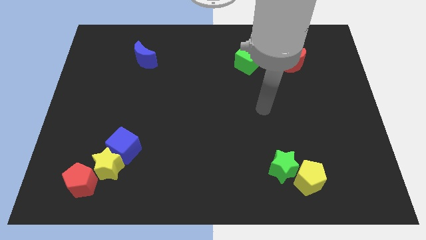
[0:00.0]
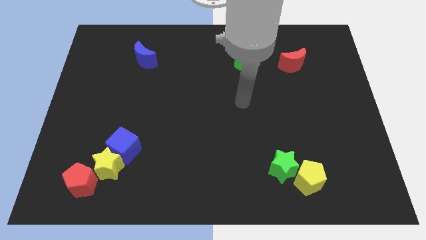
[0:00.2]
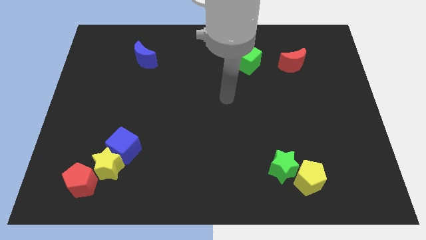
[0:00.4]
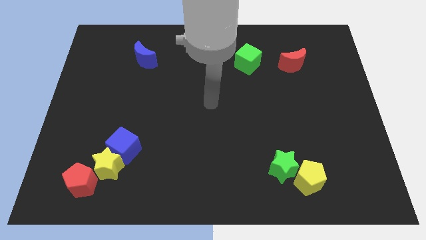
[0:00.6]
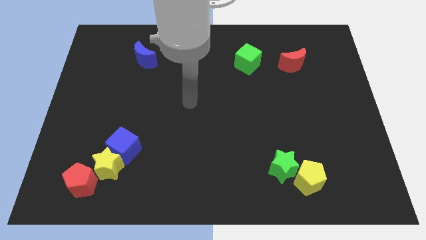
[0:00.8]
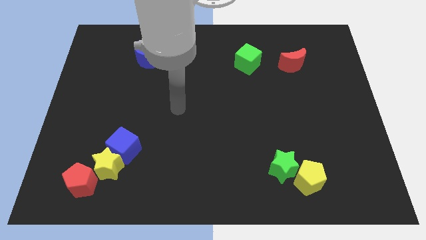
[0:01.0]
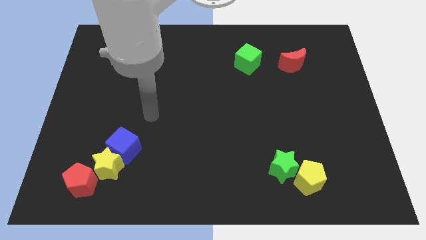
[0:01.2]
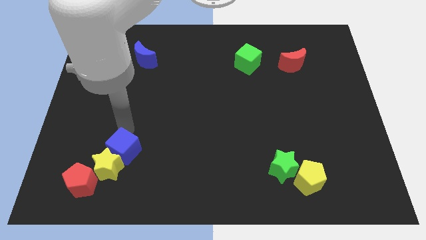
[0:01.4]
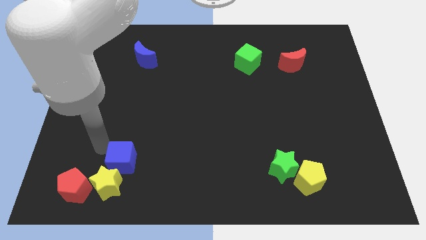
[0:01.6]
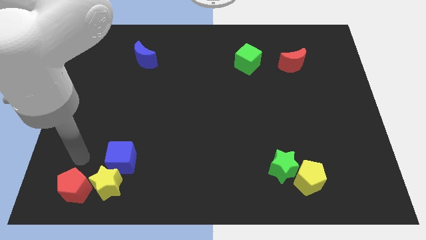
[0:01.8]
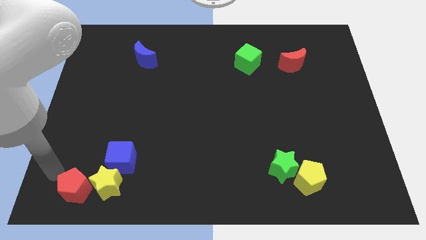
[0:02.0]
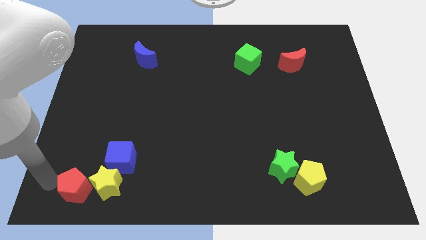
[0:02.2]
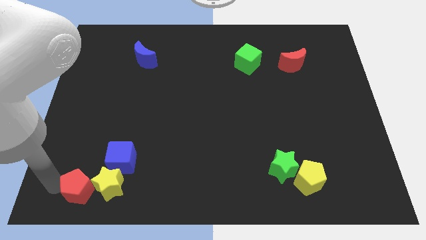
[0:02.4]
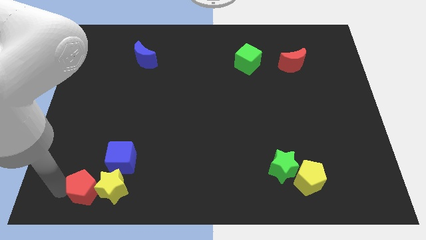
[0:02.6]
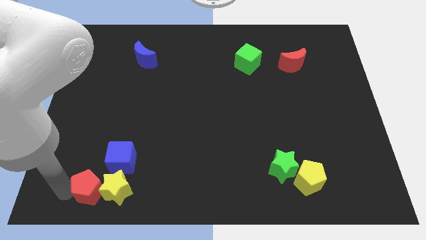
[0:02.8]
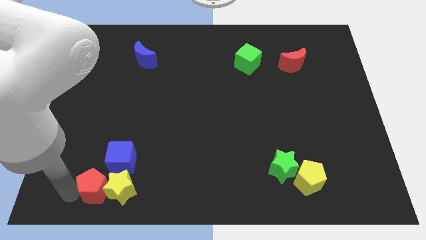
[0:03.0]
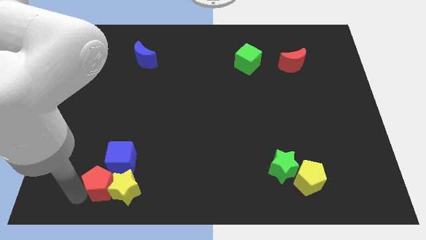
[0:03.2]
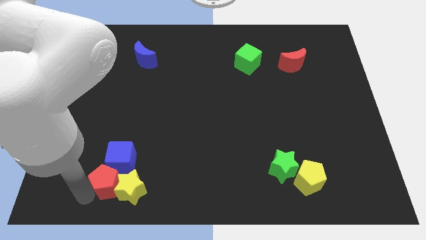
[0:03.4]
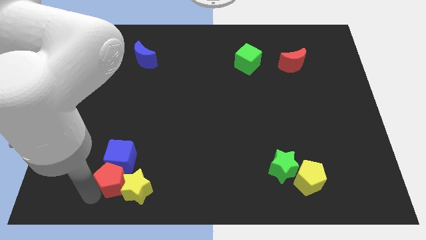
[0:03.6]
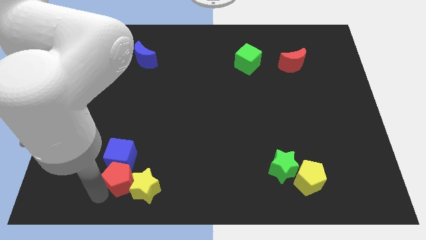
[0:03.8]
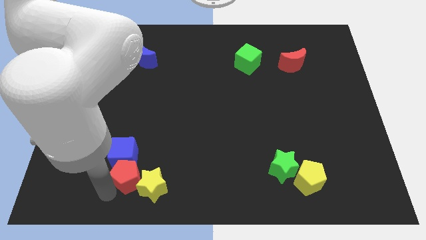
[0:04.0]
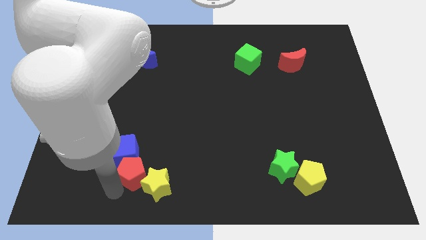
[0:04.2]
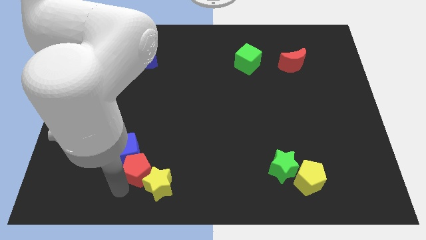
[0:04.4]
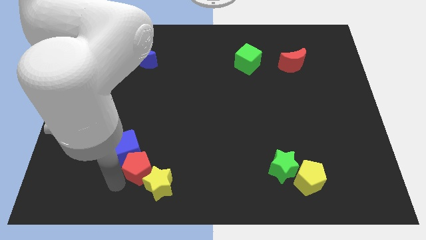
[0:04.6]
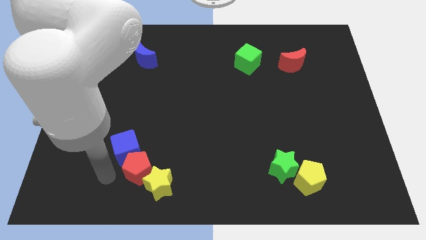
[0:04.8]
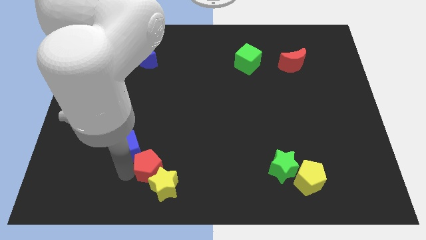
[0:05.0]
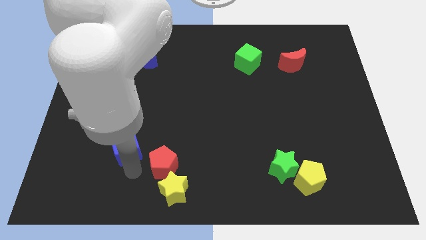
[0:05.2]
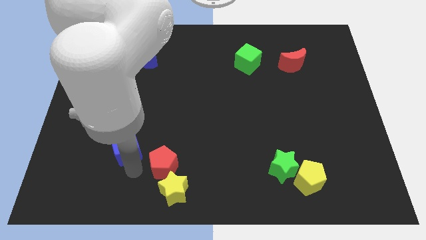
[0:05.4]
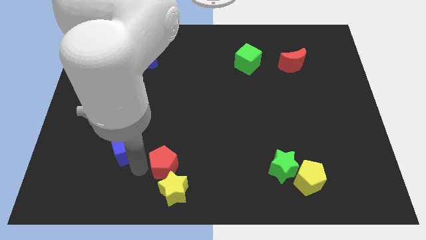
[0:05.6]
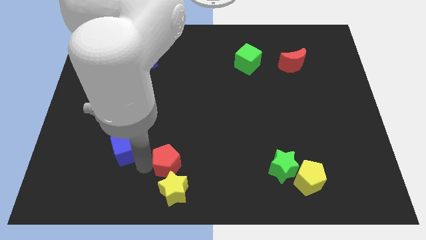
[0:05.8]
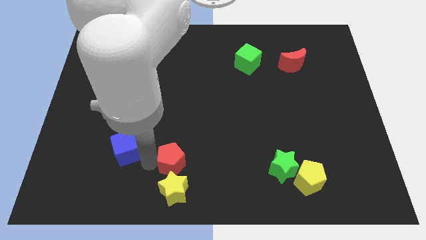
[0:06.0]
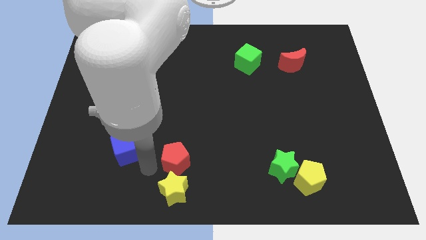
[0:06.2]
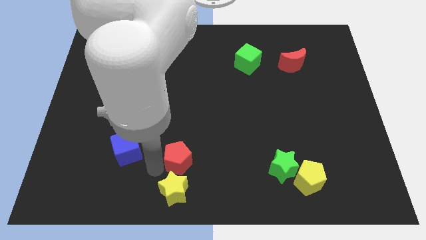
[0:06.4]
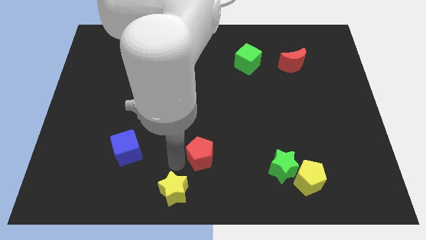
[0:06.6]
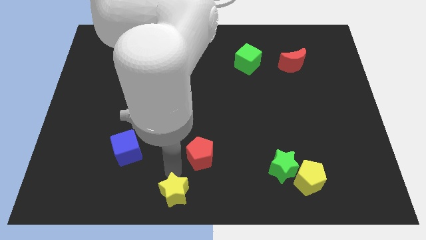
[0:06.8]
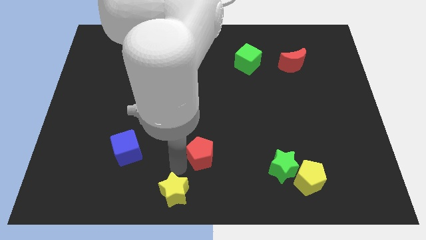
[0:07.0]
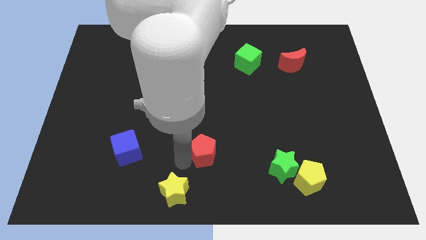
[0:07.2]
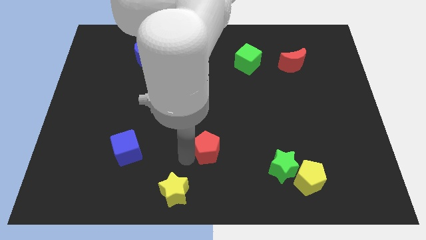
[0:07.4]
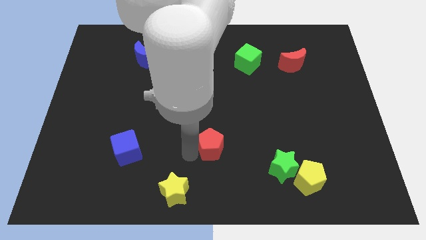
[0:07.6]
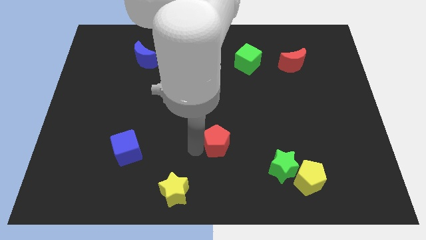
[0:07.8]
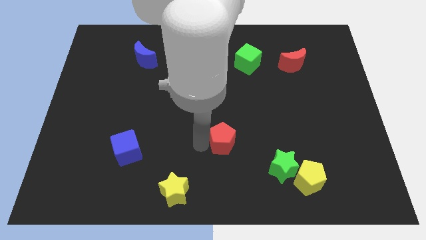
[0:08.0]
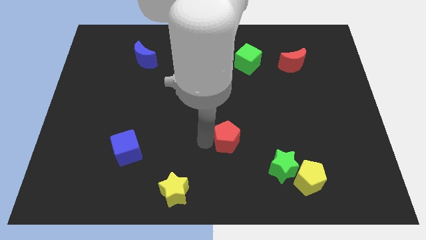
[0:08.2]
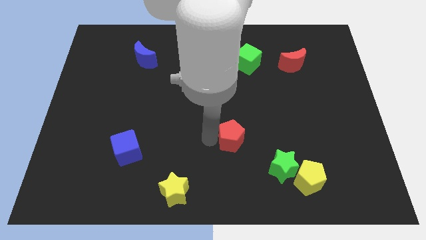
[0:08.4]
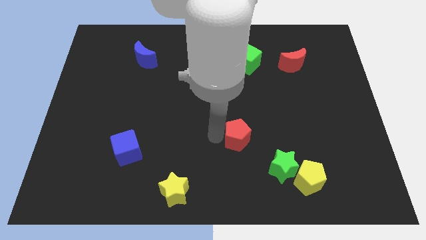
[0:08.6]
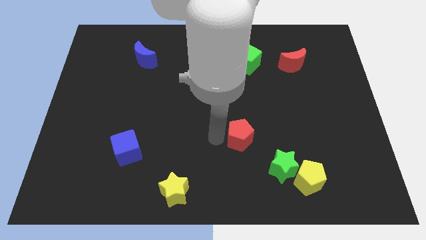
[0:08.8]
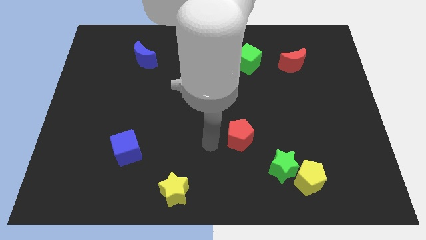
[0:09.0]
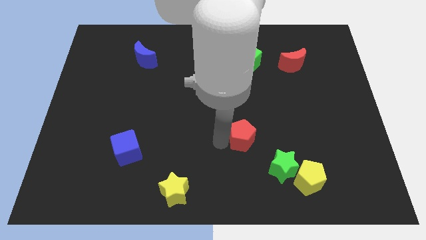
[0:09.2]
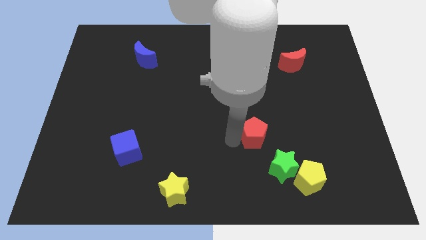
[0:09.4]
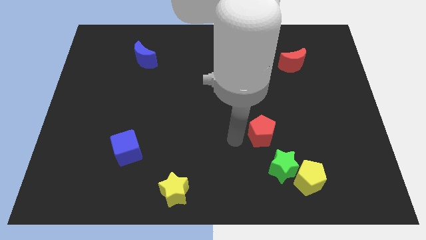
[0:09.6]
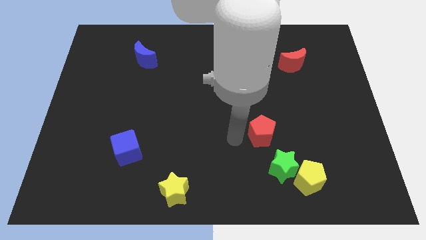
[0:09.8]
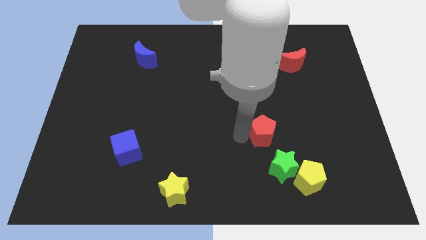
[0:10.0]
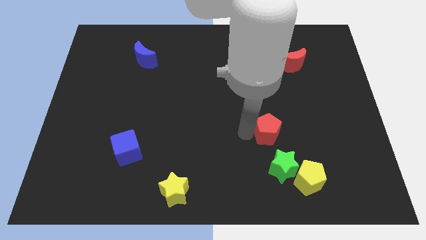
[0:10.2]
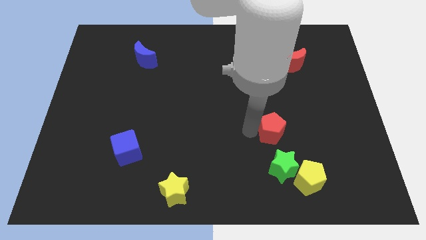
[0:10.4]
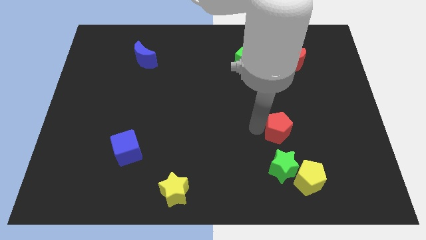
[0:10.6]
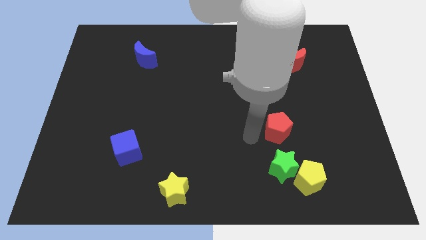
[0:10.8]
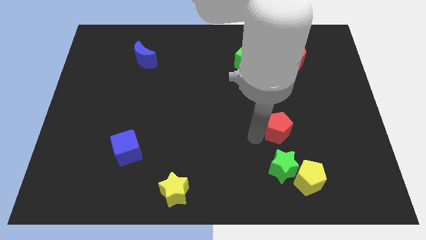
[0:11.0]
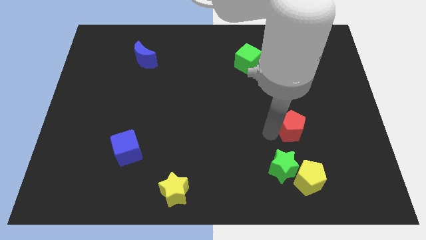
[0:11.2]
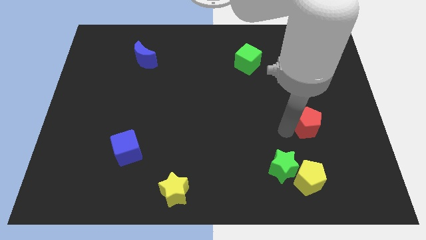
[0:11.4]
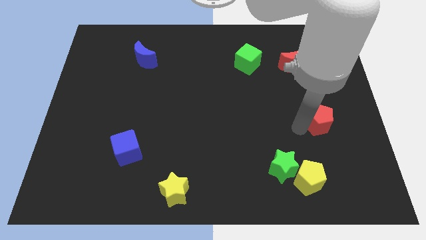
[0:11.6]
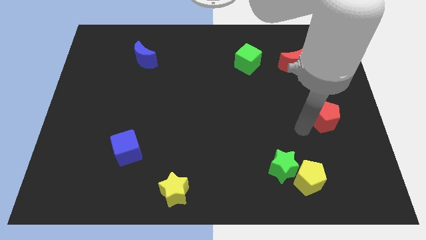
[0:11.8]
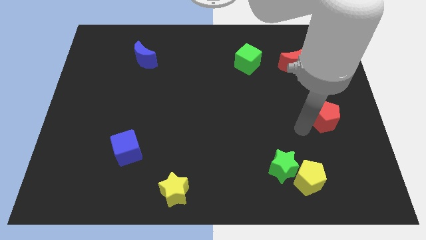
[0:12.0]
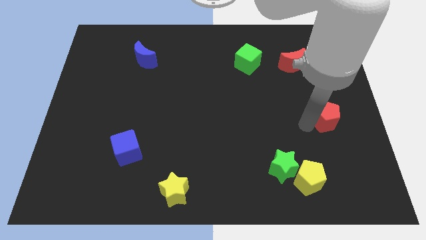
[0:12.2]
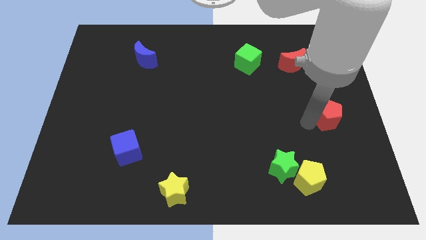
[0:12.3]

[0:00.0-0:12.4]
put the red pentagon to the center right
